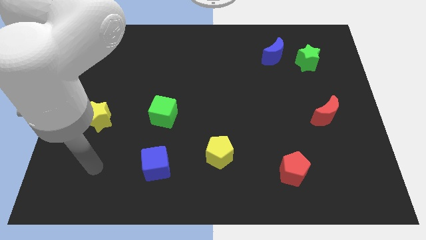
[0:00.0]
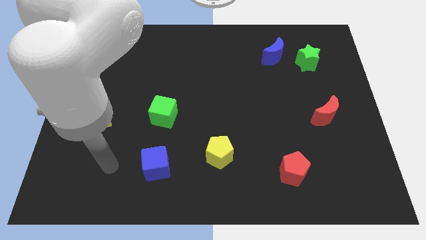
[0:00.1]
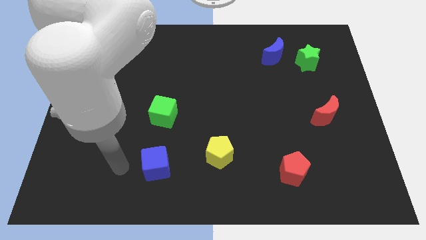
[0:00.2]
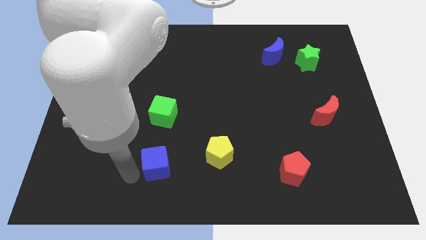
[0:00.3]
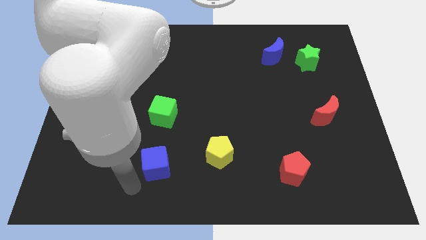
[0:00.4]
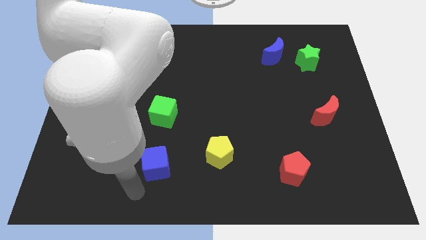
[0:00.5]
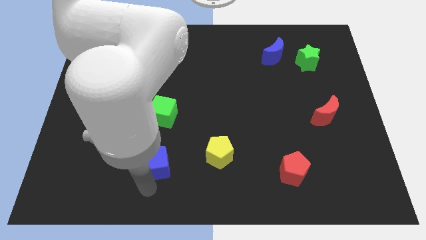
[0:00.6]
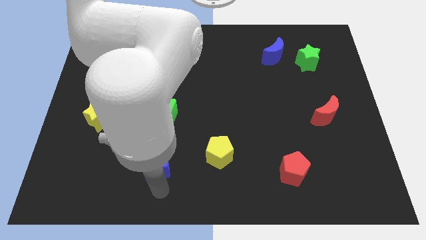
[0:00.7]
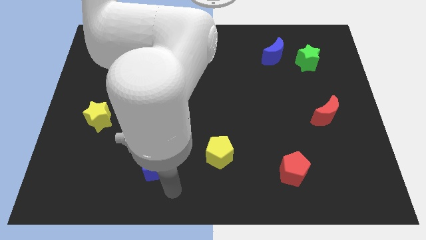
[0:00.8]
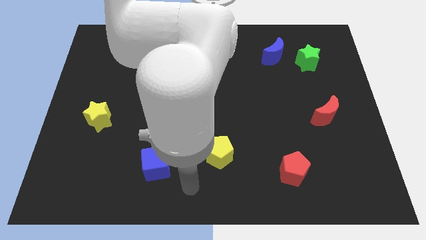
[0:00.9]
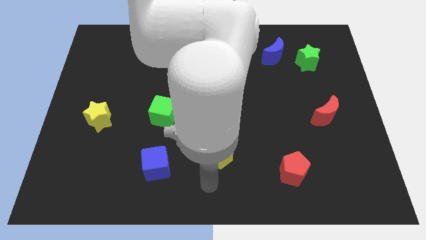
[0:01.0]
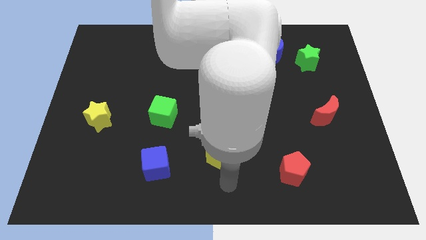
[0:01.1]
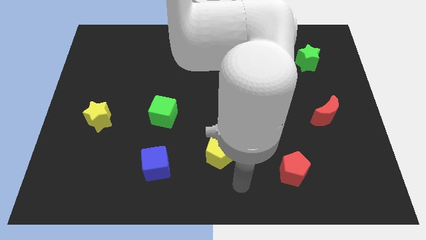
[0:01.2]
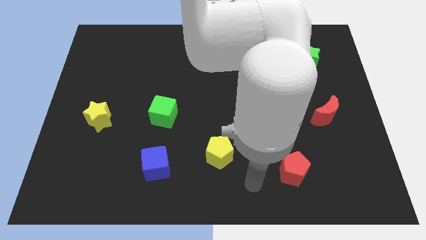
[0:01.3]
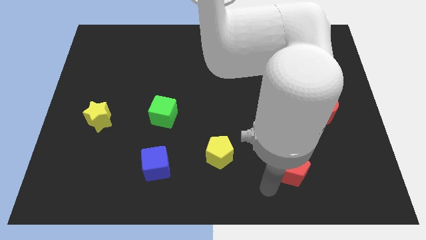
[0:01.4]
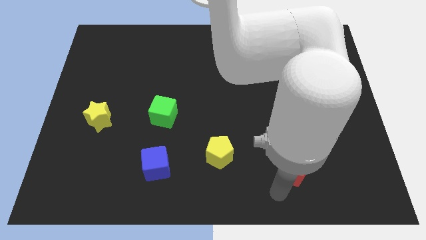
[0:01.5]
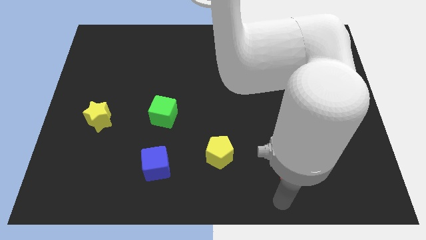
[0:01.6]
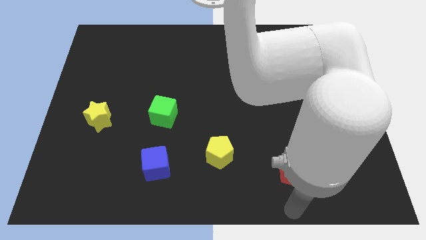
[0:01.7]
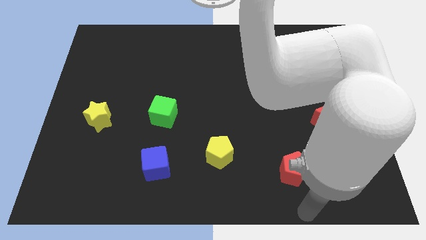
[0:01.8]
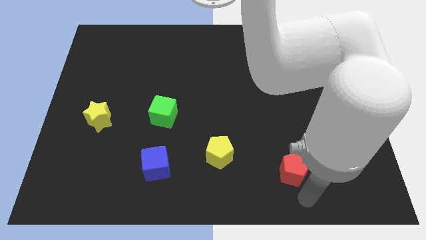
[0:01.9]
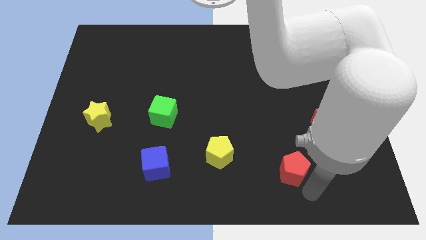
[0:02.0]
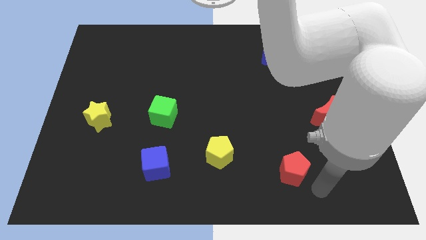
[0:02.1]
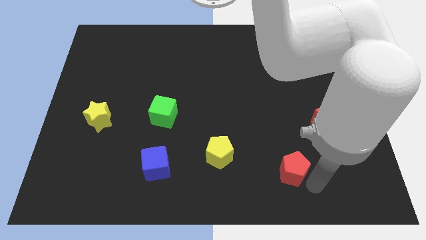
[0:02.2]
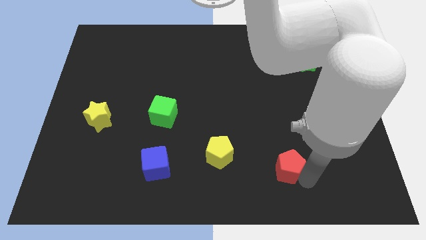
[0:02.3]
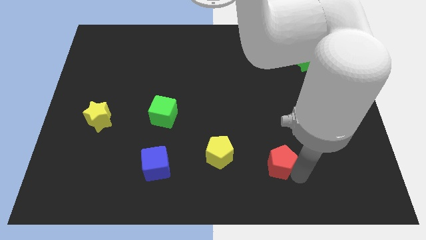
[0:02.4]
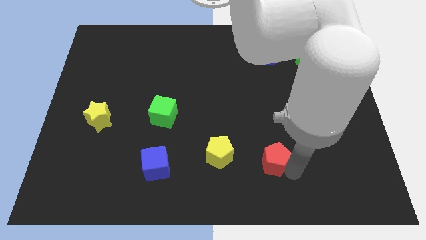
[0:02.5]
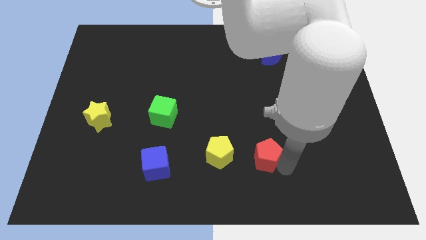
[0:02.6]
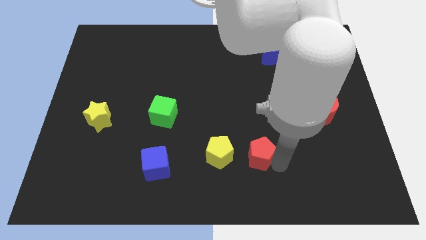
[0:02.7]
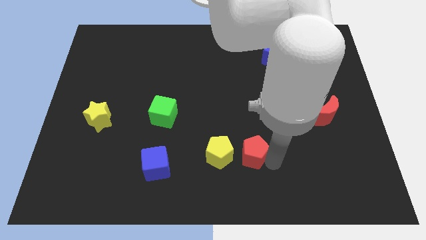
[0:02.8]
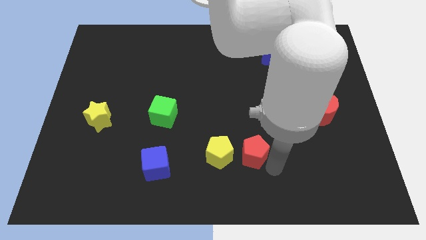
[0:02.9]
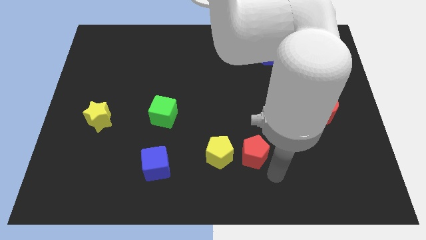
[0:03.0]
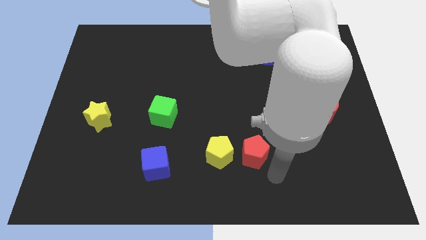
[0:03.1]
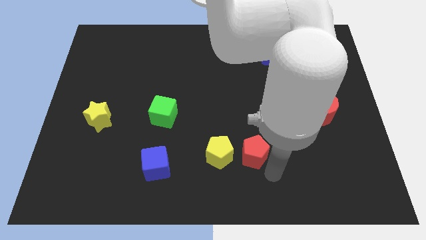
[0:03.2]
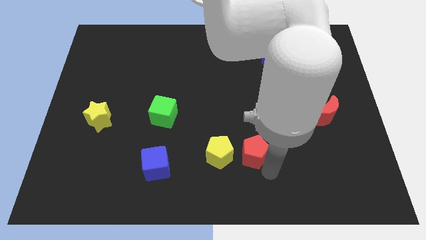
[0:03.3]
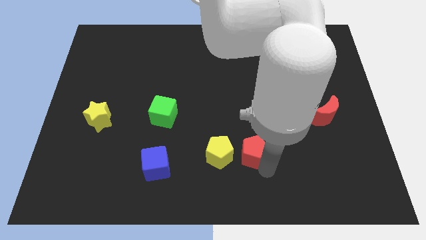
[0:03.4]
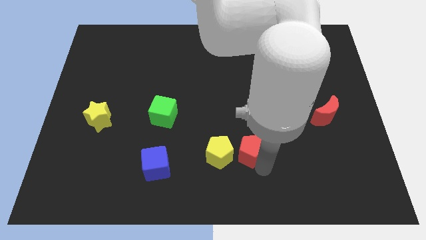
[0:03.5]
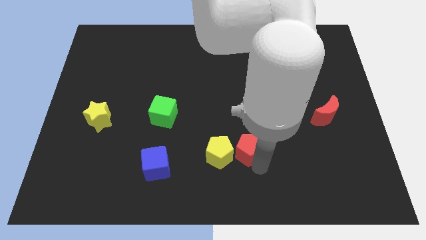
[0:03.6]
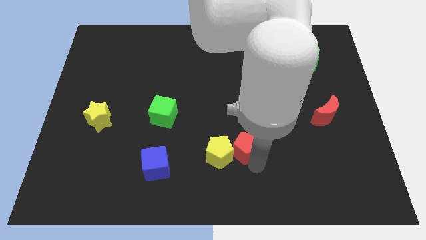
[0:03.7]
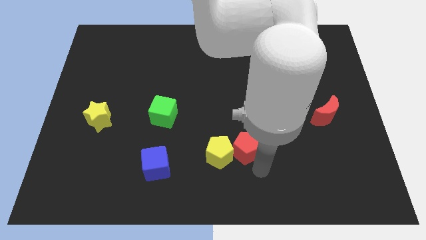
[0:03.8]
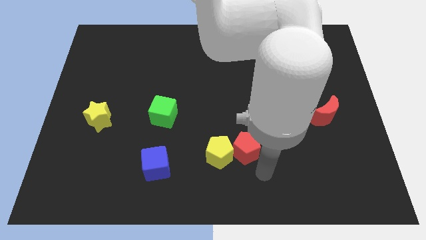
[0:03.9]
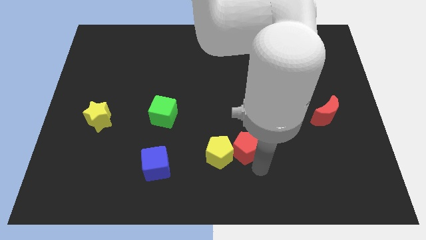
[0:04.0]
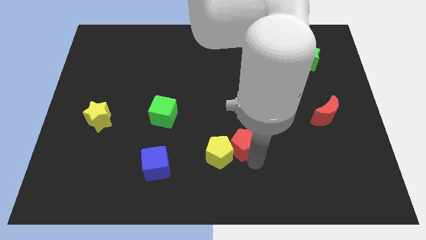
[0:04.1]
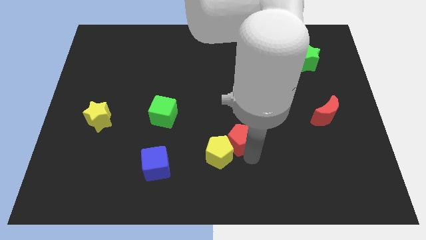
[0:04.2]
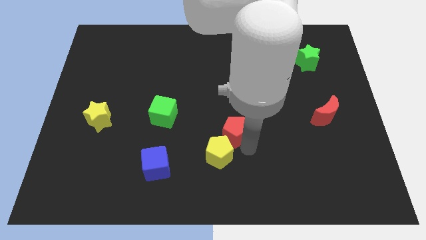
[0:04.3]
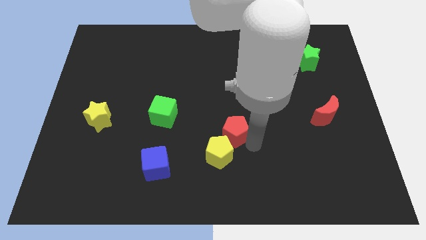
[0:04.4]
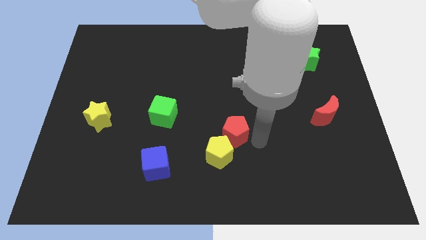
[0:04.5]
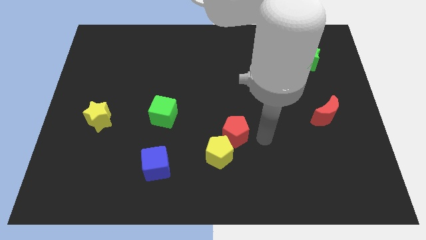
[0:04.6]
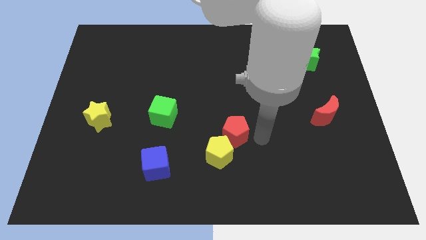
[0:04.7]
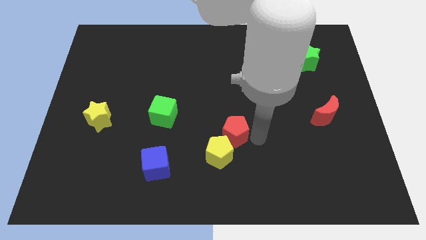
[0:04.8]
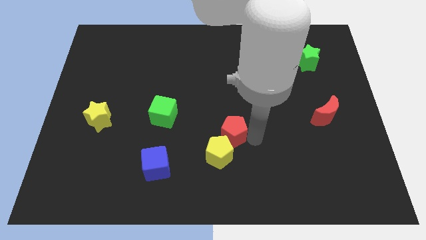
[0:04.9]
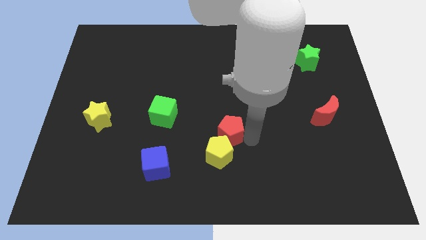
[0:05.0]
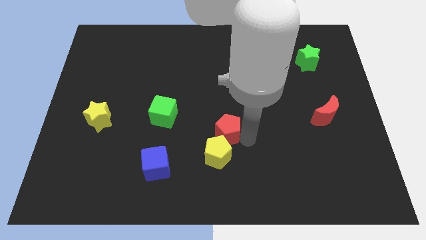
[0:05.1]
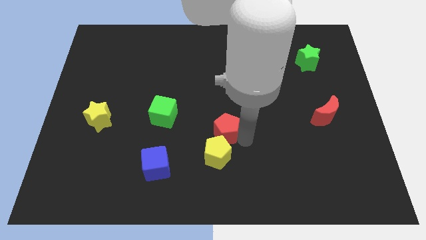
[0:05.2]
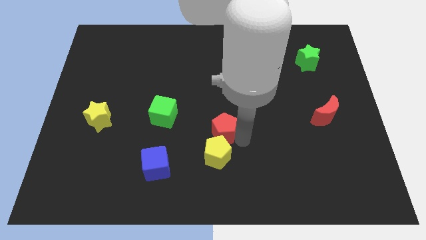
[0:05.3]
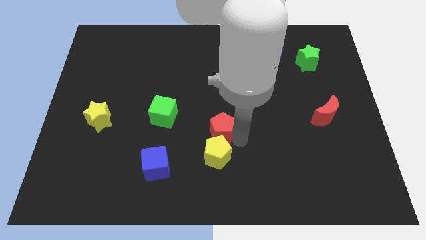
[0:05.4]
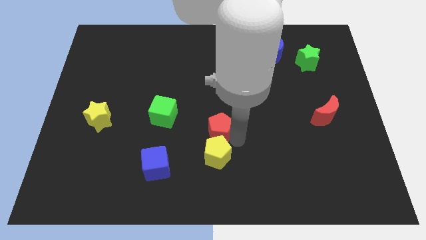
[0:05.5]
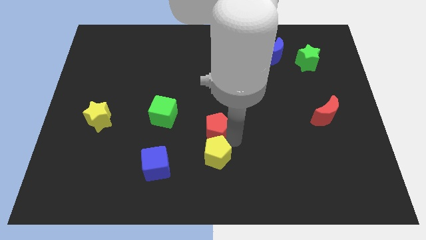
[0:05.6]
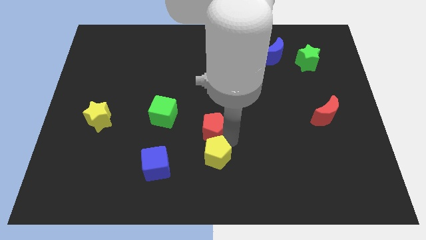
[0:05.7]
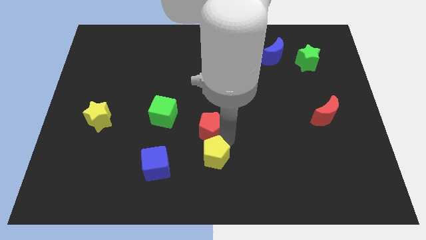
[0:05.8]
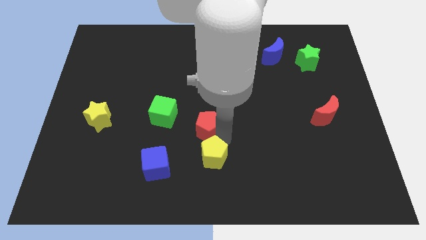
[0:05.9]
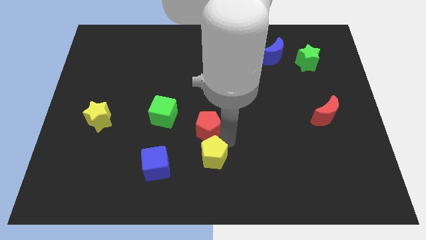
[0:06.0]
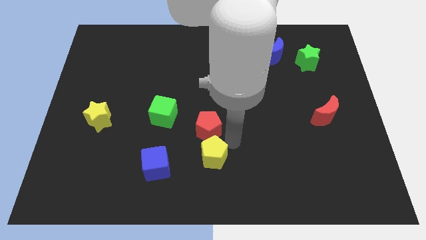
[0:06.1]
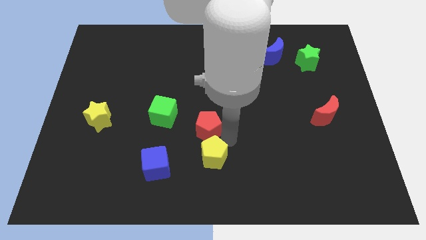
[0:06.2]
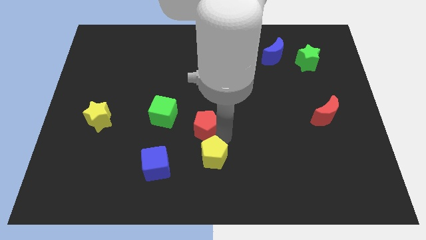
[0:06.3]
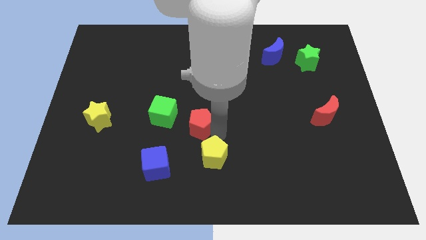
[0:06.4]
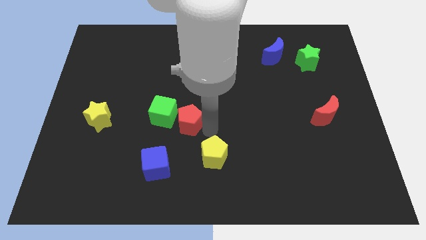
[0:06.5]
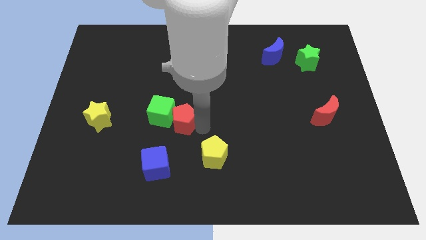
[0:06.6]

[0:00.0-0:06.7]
slide the red pentagon to the green cube

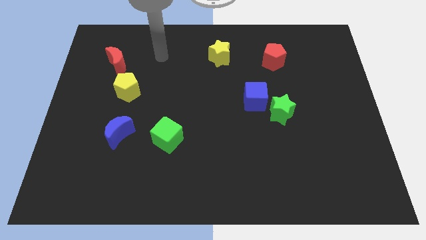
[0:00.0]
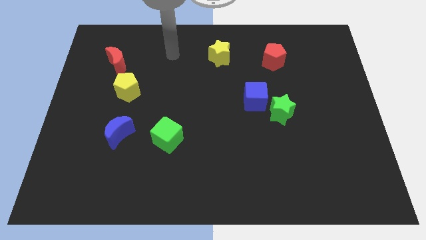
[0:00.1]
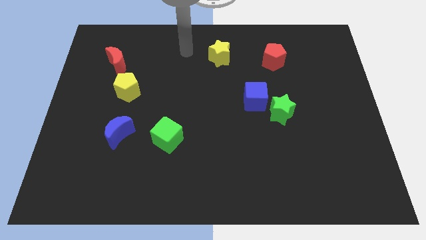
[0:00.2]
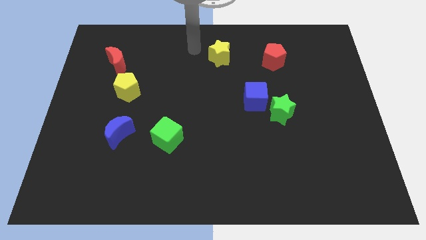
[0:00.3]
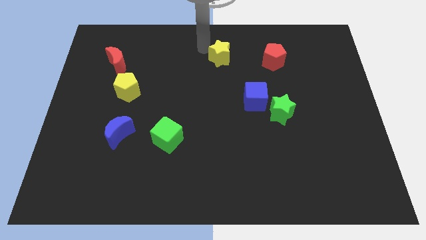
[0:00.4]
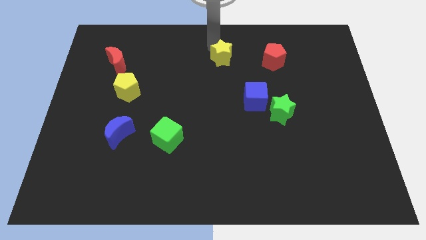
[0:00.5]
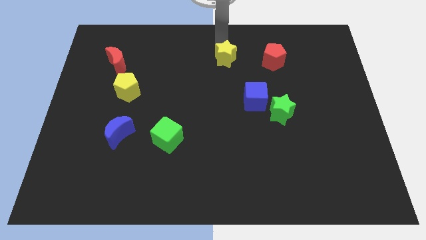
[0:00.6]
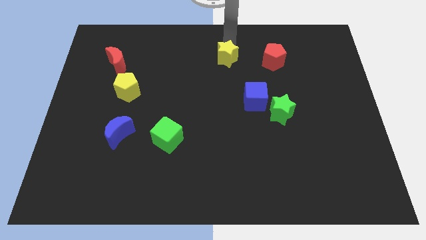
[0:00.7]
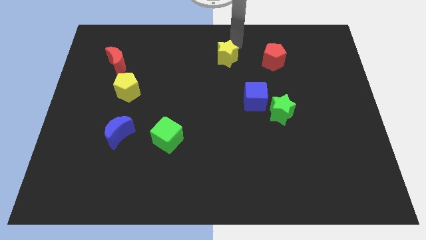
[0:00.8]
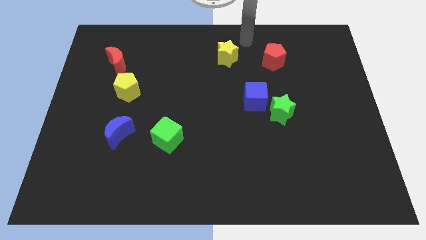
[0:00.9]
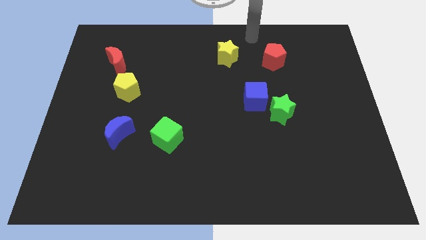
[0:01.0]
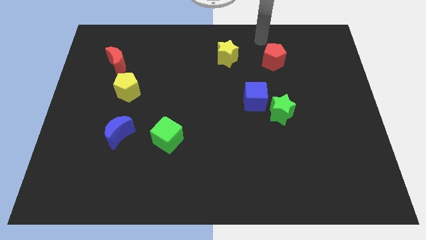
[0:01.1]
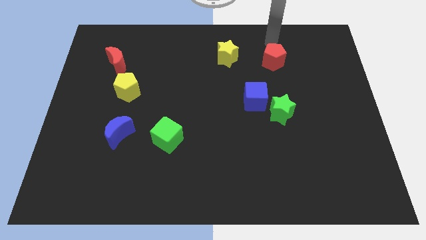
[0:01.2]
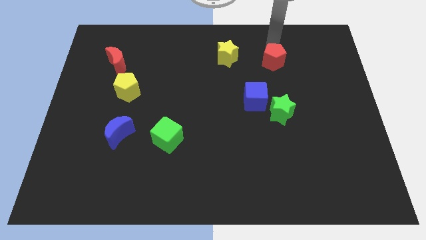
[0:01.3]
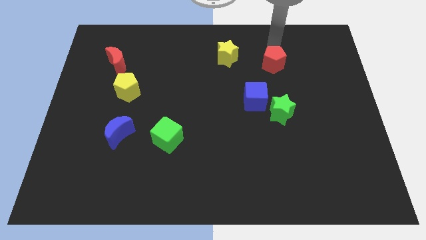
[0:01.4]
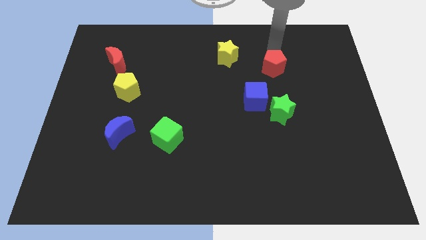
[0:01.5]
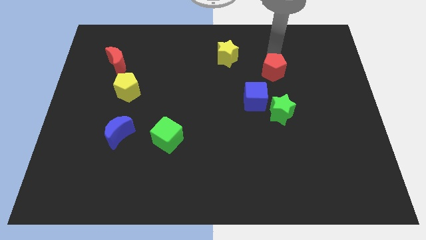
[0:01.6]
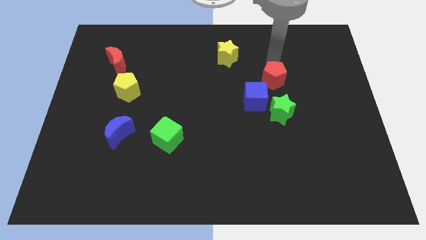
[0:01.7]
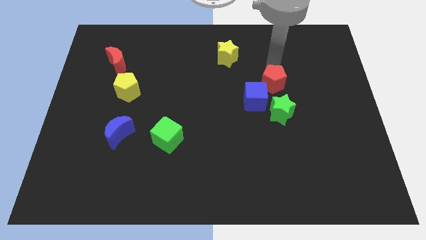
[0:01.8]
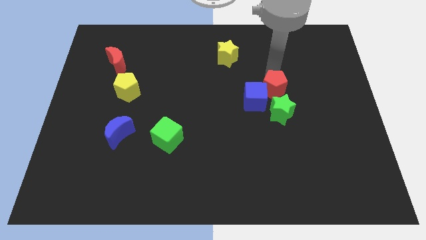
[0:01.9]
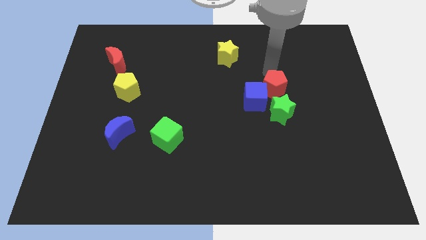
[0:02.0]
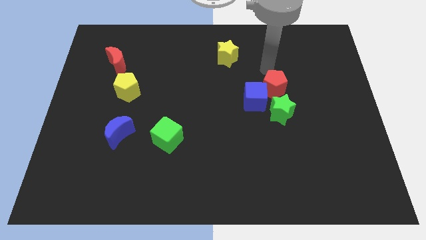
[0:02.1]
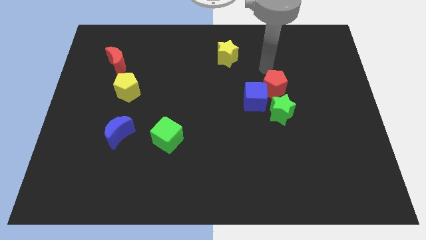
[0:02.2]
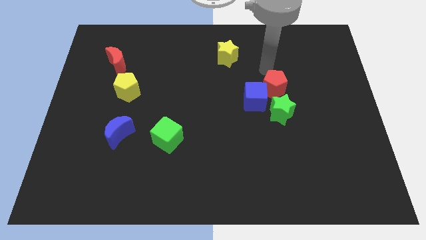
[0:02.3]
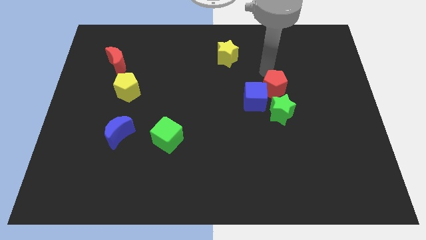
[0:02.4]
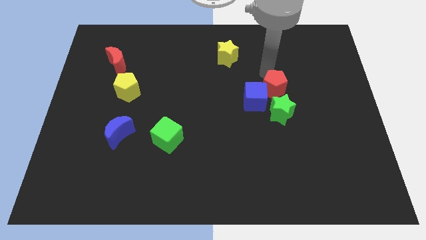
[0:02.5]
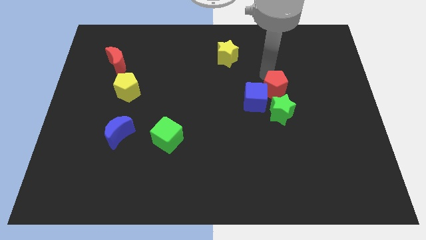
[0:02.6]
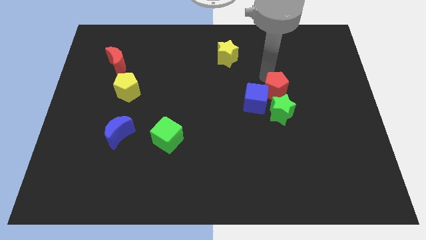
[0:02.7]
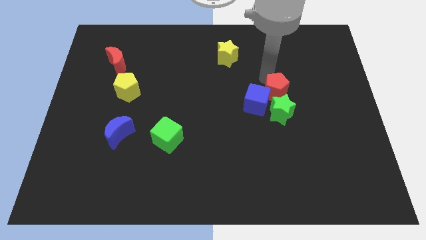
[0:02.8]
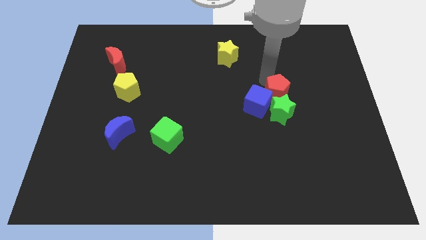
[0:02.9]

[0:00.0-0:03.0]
move the red pentagon close to the green star
